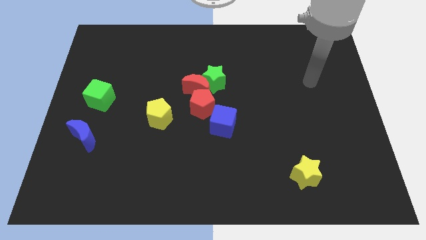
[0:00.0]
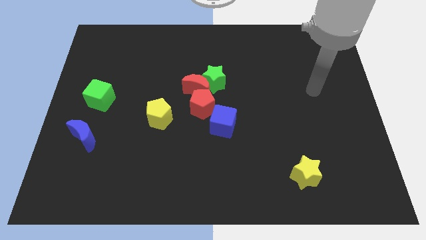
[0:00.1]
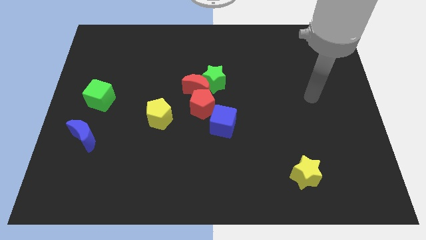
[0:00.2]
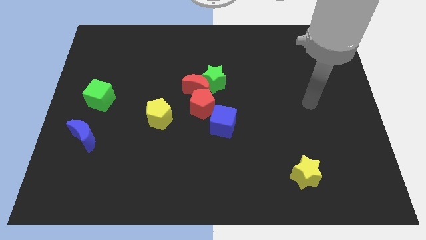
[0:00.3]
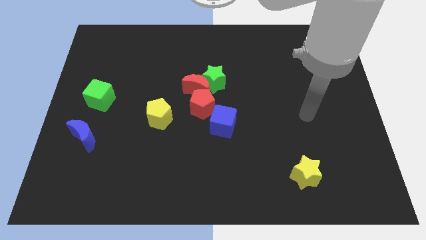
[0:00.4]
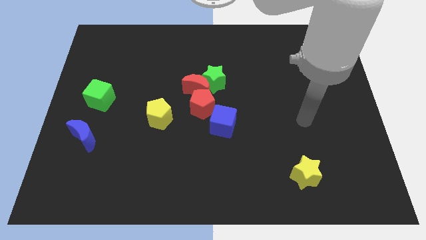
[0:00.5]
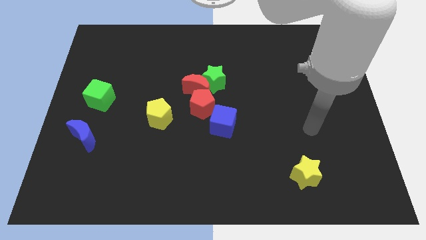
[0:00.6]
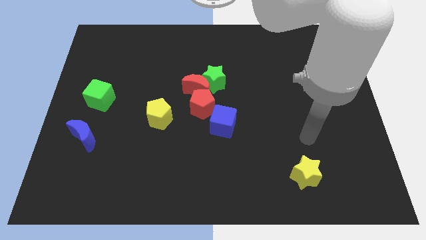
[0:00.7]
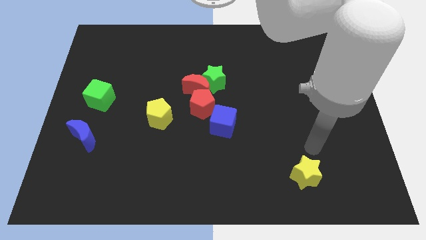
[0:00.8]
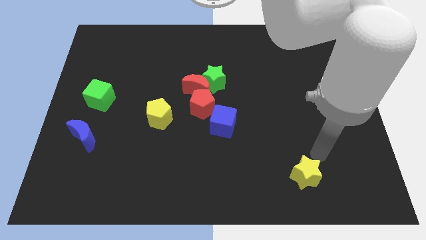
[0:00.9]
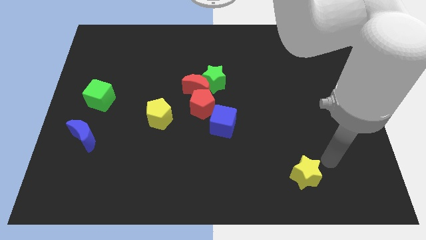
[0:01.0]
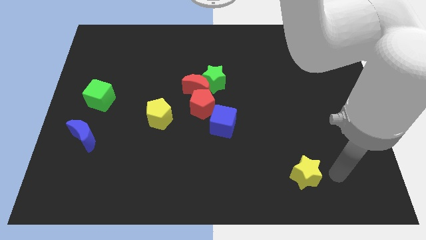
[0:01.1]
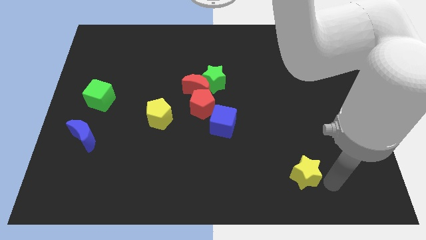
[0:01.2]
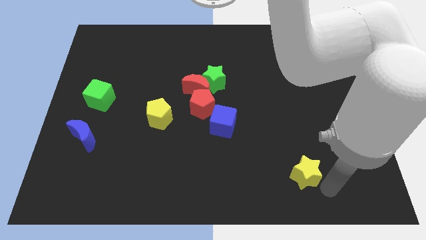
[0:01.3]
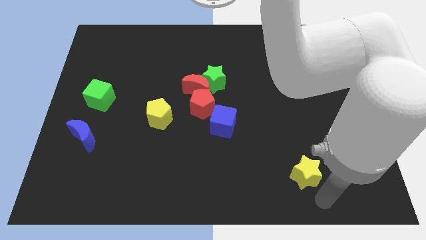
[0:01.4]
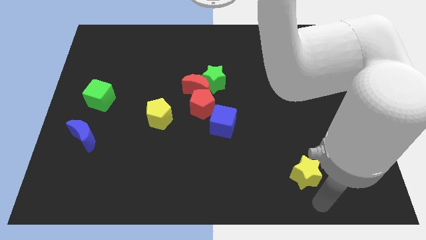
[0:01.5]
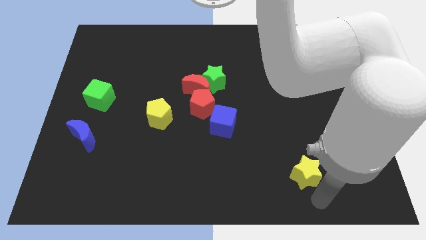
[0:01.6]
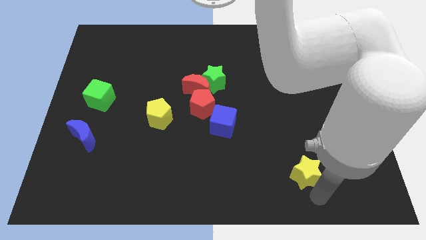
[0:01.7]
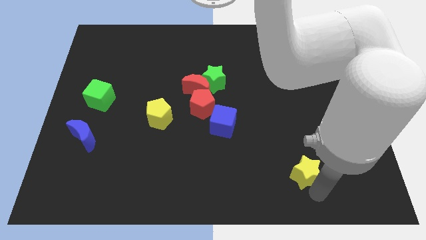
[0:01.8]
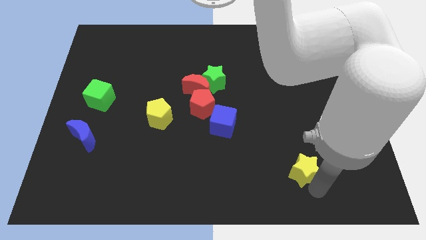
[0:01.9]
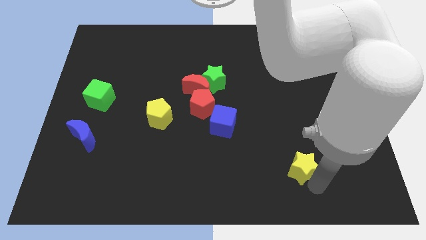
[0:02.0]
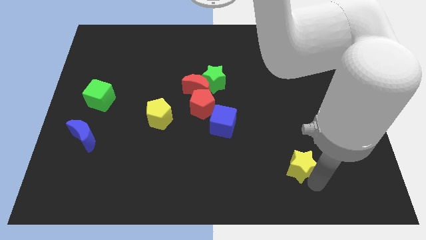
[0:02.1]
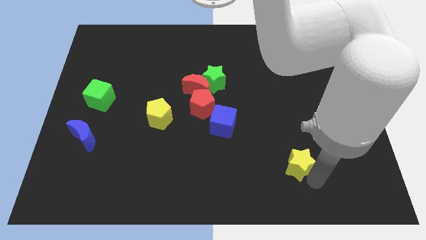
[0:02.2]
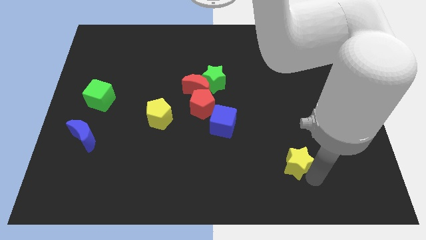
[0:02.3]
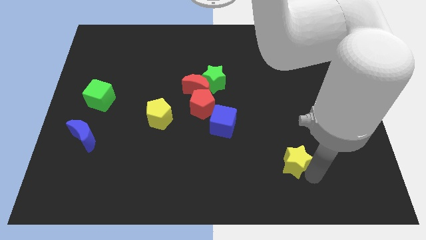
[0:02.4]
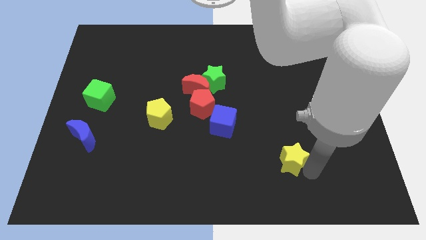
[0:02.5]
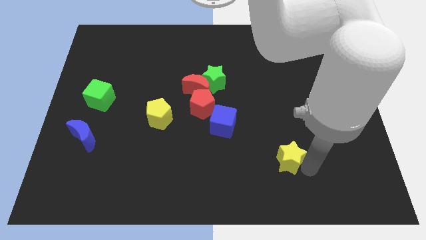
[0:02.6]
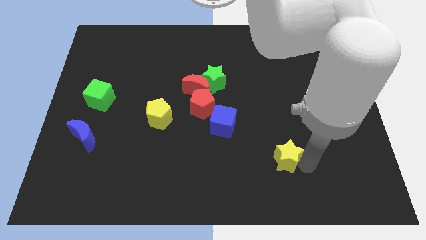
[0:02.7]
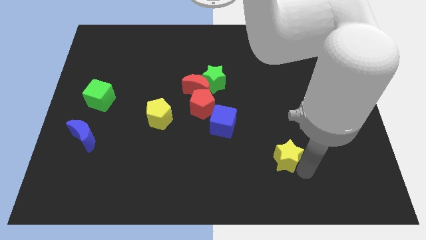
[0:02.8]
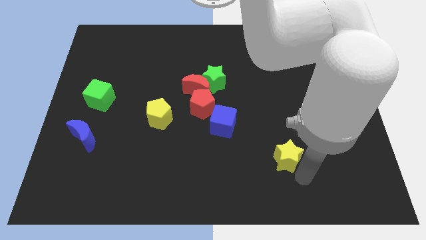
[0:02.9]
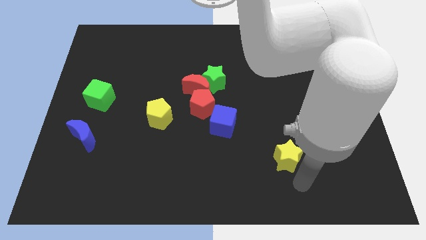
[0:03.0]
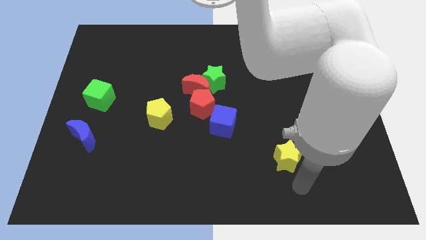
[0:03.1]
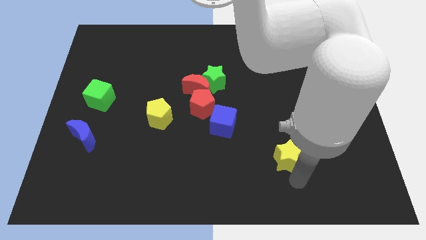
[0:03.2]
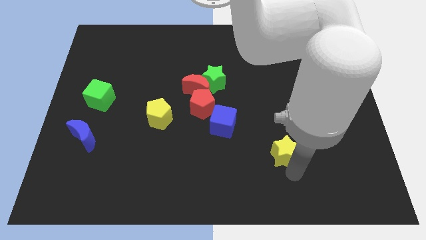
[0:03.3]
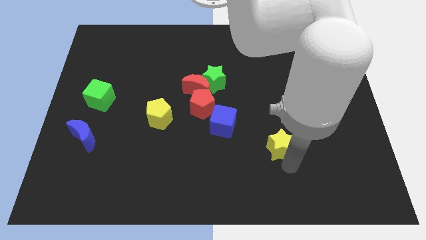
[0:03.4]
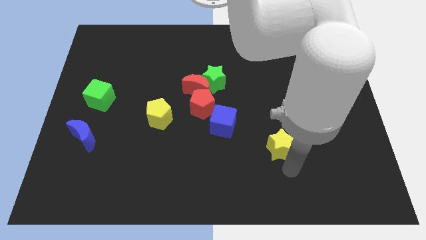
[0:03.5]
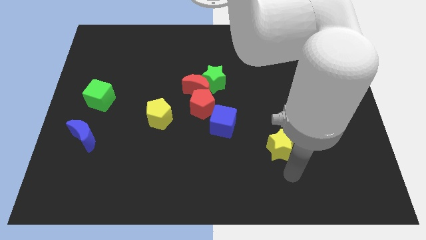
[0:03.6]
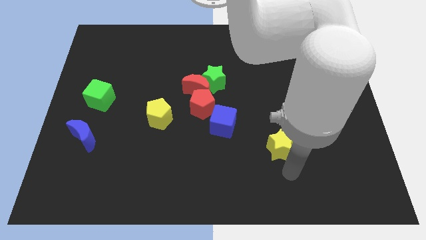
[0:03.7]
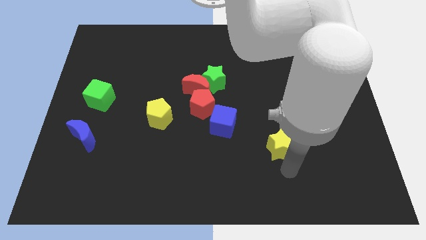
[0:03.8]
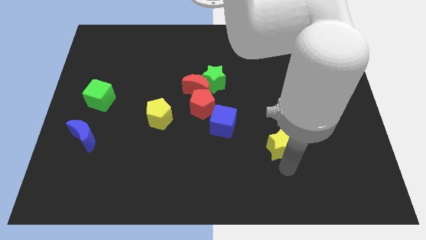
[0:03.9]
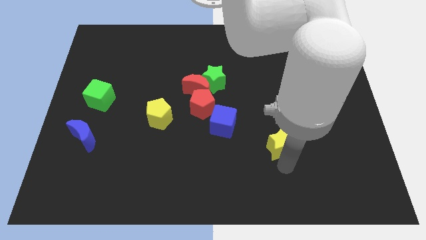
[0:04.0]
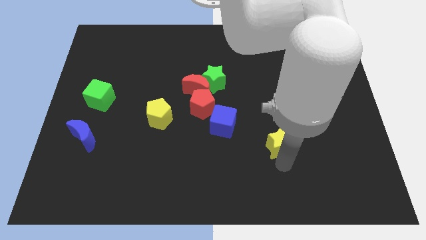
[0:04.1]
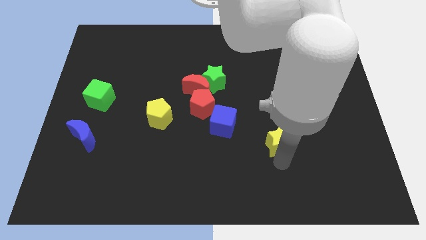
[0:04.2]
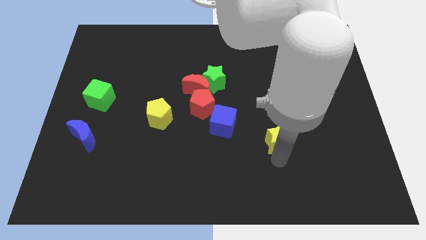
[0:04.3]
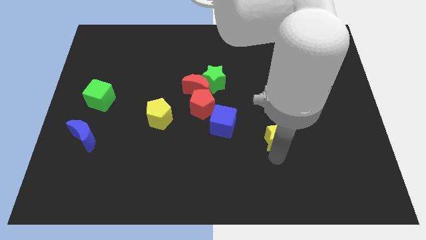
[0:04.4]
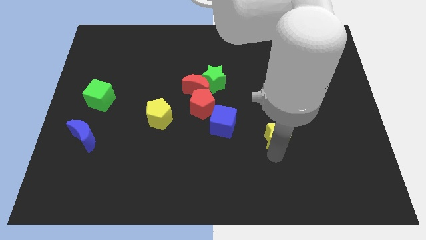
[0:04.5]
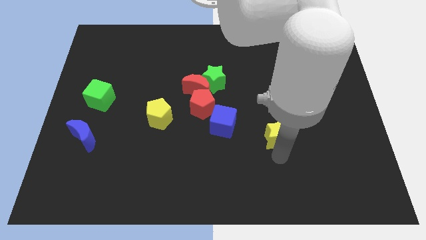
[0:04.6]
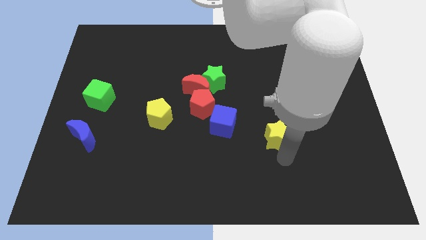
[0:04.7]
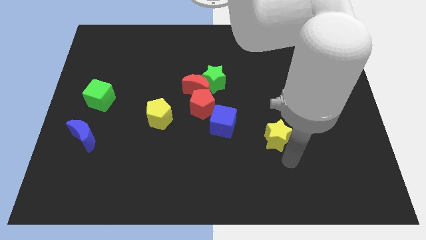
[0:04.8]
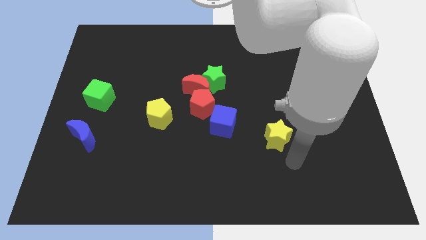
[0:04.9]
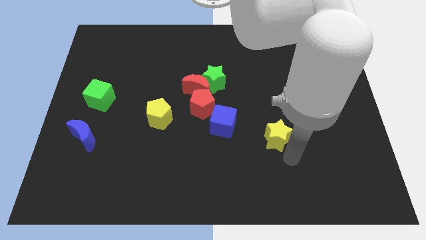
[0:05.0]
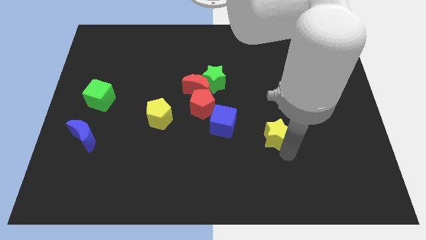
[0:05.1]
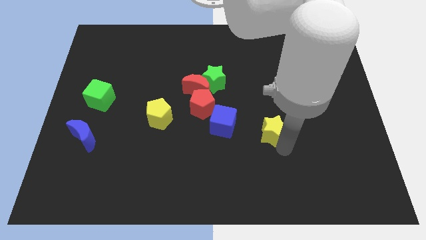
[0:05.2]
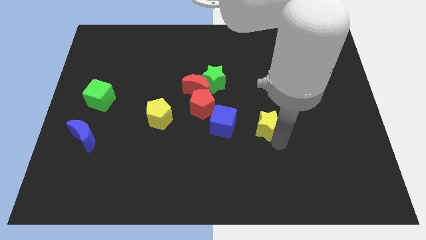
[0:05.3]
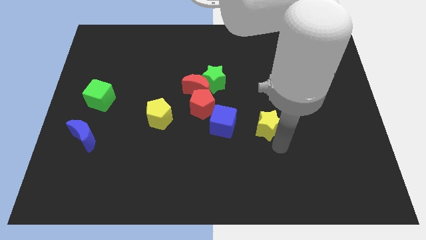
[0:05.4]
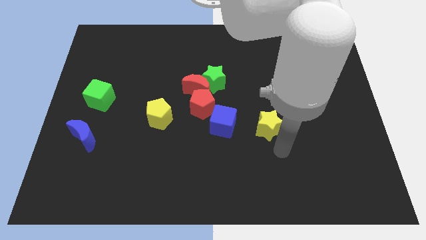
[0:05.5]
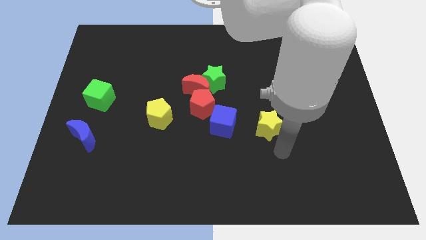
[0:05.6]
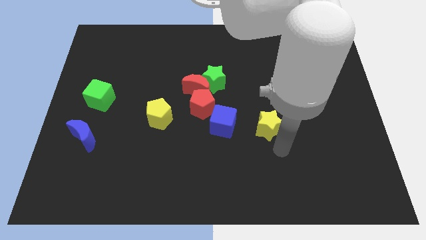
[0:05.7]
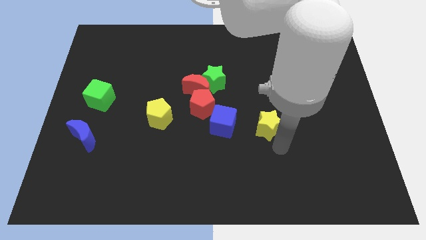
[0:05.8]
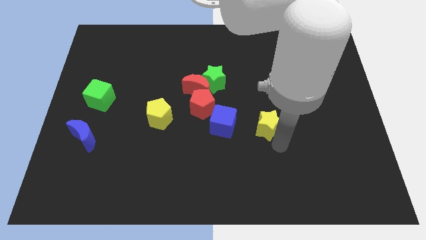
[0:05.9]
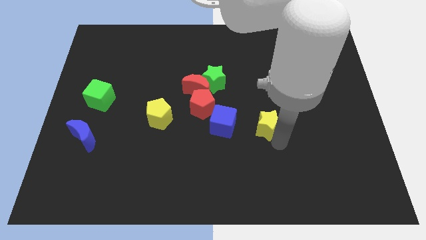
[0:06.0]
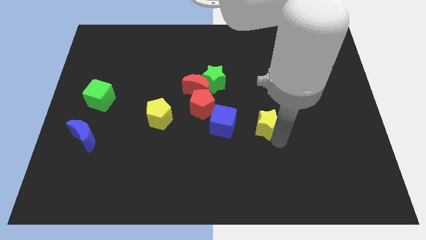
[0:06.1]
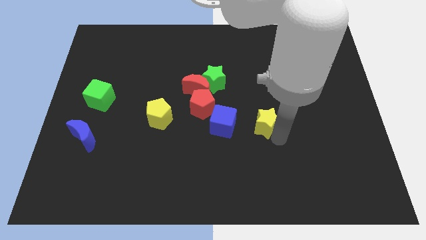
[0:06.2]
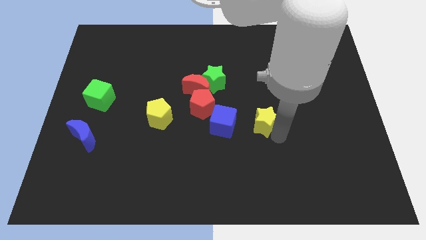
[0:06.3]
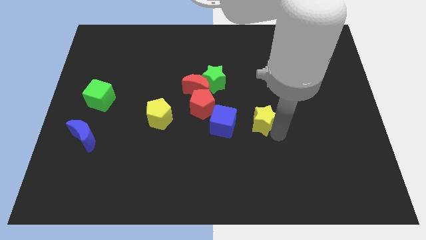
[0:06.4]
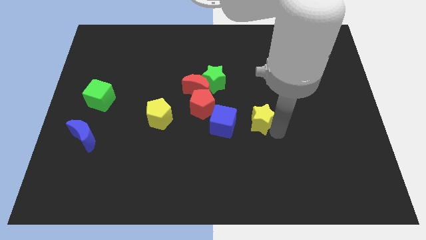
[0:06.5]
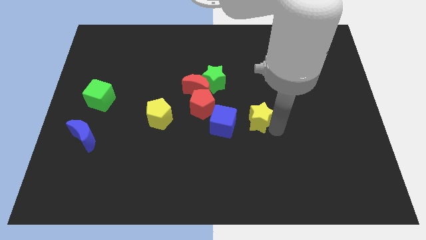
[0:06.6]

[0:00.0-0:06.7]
move the yellow star right of the red pentagon

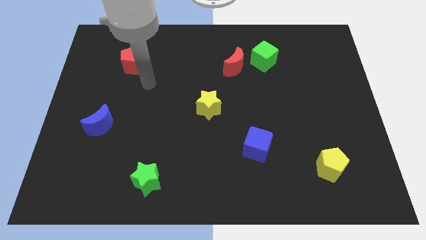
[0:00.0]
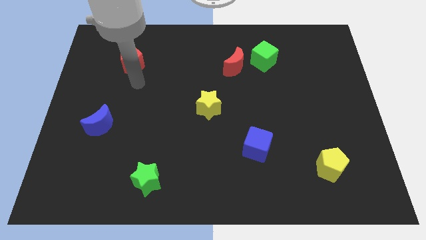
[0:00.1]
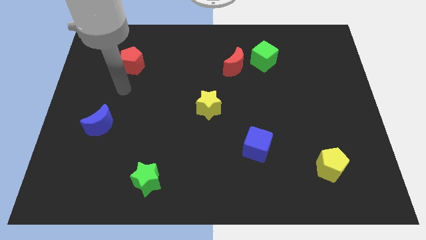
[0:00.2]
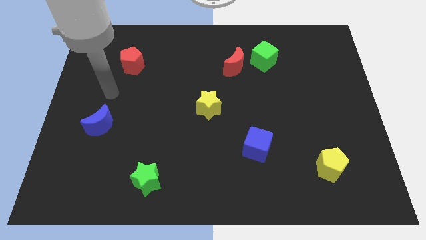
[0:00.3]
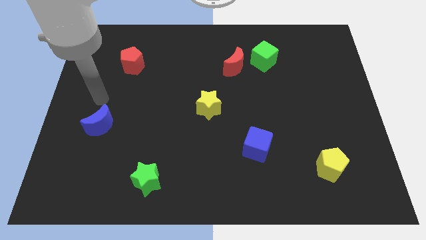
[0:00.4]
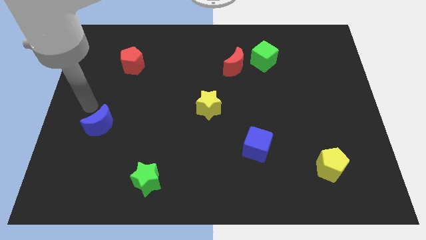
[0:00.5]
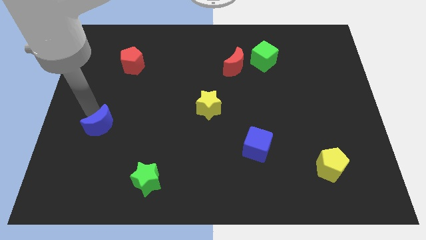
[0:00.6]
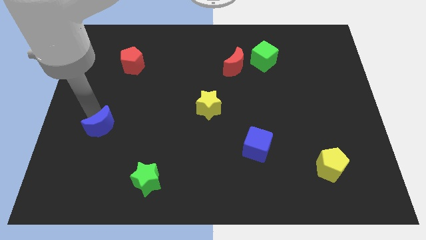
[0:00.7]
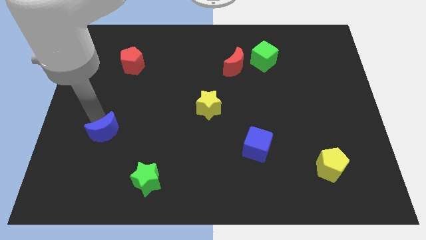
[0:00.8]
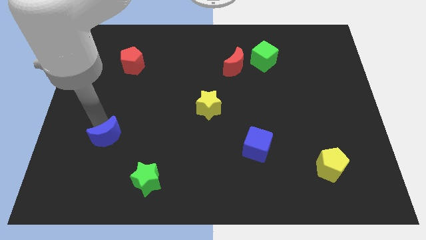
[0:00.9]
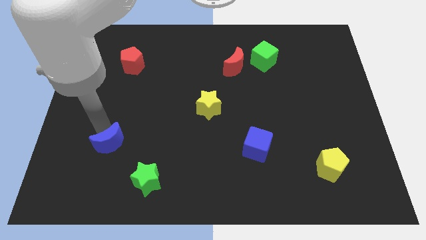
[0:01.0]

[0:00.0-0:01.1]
put the blue moon to the top left of the green star
